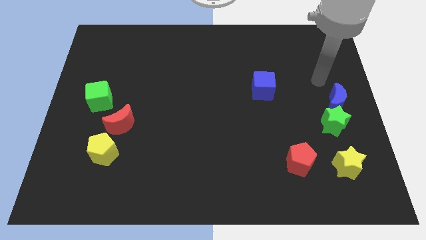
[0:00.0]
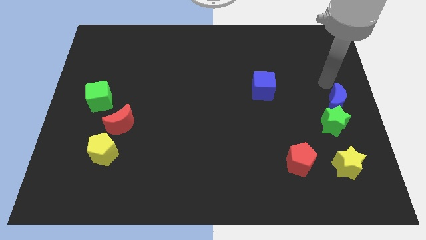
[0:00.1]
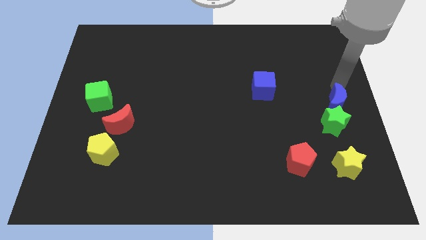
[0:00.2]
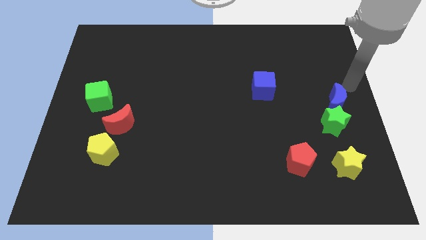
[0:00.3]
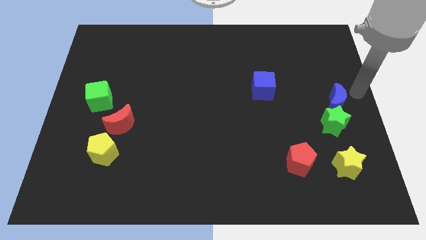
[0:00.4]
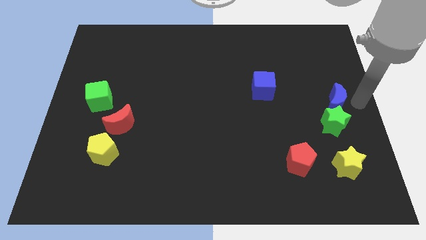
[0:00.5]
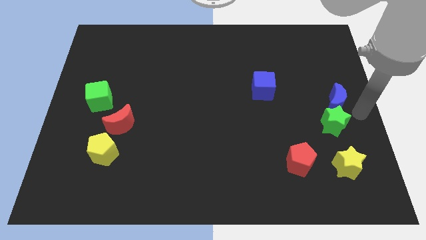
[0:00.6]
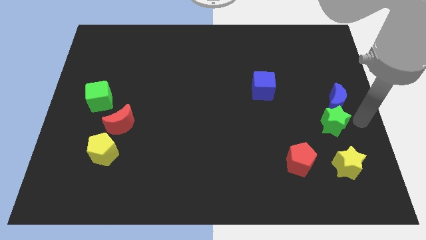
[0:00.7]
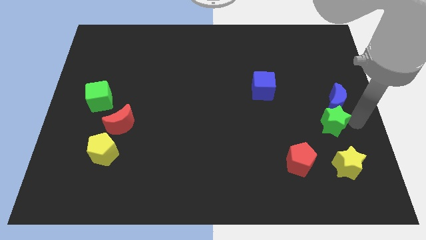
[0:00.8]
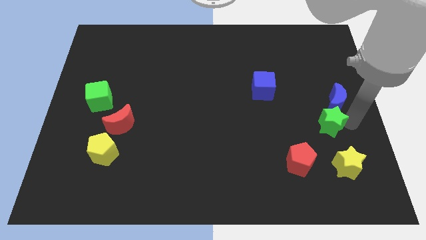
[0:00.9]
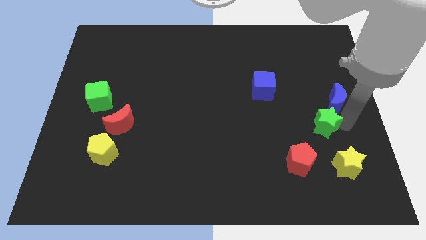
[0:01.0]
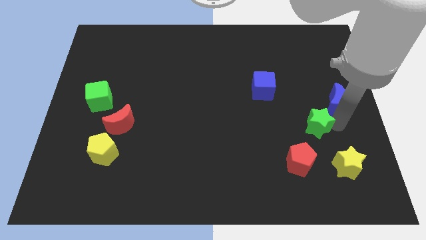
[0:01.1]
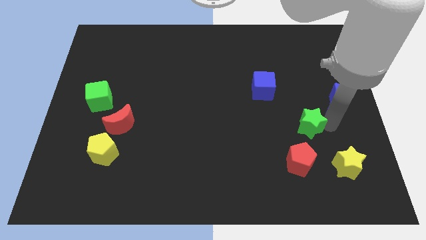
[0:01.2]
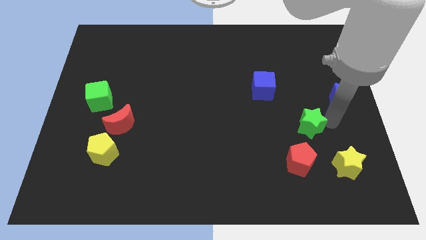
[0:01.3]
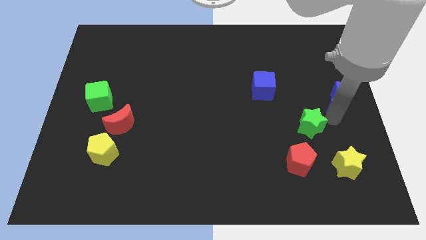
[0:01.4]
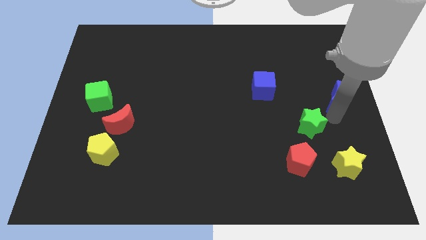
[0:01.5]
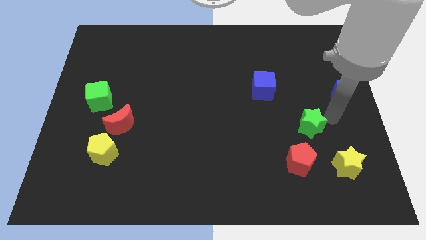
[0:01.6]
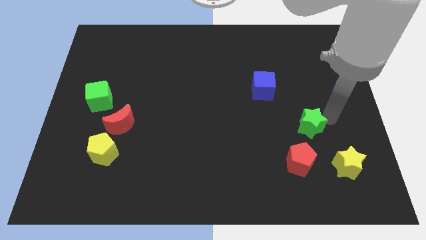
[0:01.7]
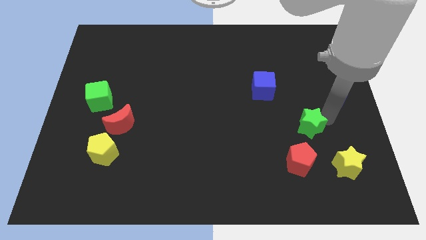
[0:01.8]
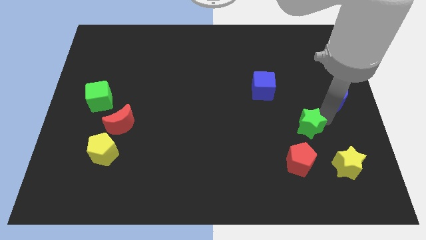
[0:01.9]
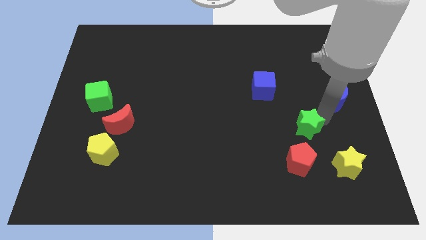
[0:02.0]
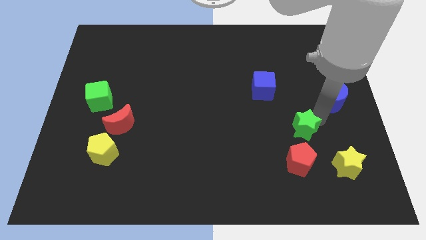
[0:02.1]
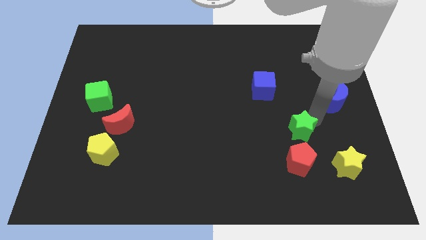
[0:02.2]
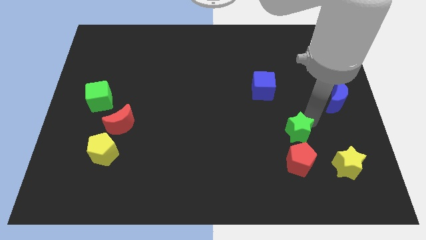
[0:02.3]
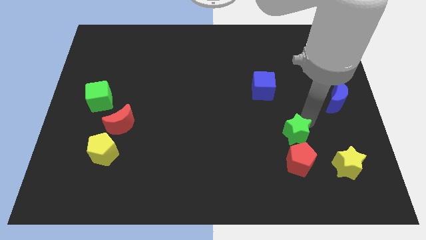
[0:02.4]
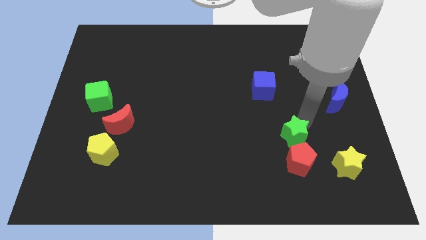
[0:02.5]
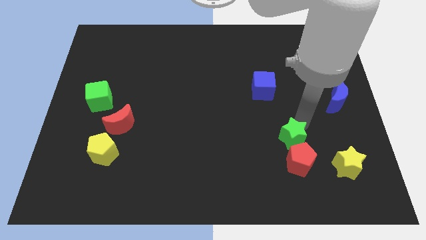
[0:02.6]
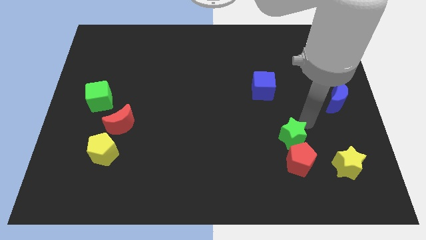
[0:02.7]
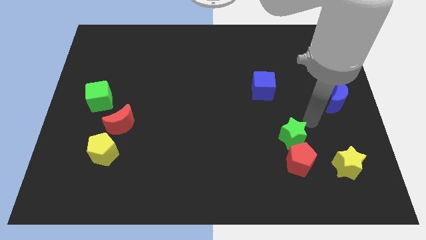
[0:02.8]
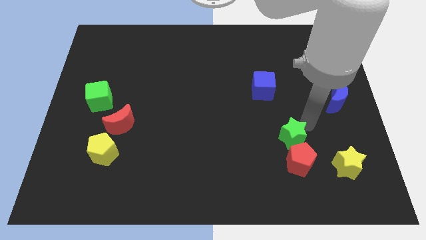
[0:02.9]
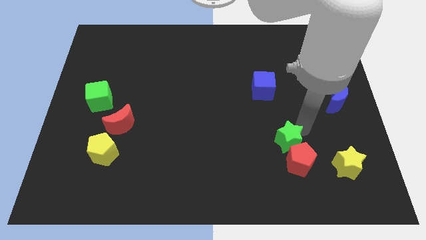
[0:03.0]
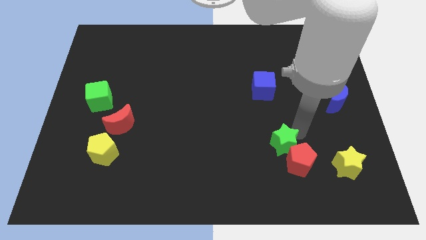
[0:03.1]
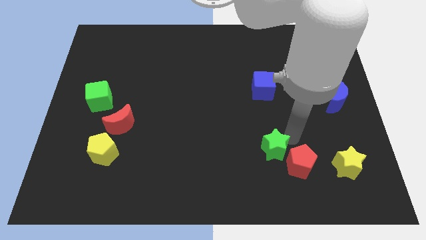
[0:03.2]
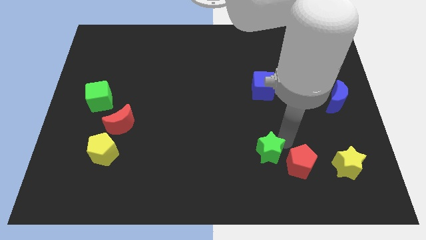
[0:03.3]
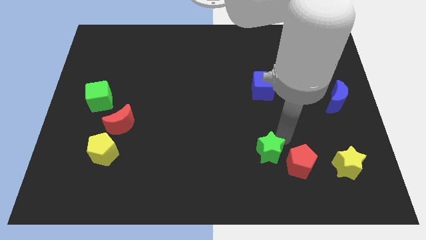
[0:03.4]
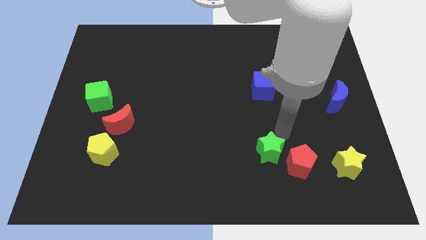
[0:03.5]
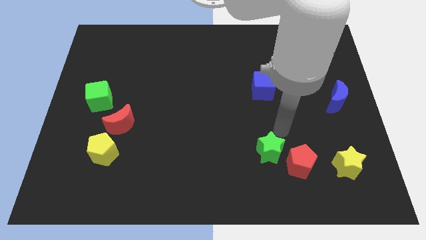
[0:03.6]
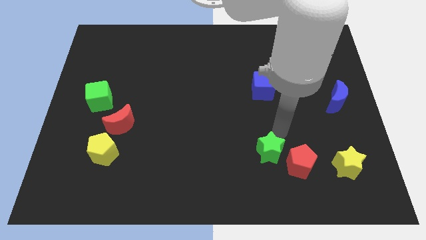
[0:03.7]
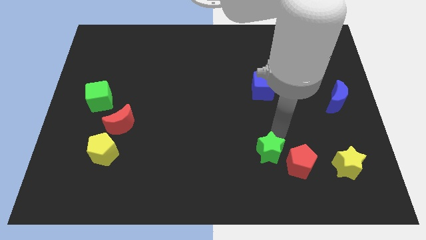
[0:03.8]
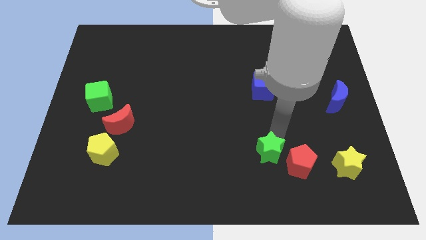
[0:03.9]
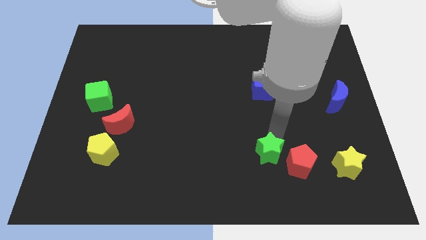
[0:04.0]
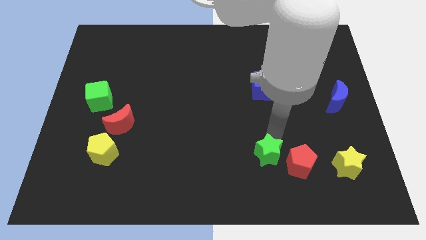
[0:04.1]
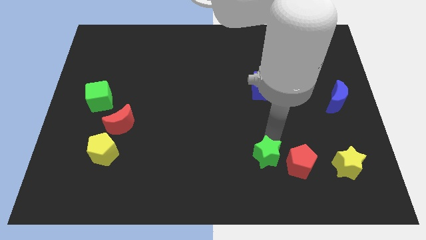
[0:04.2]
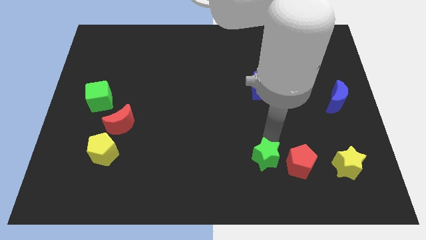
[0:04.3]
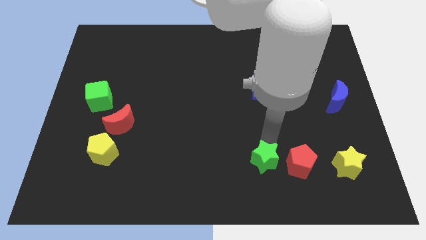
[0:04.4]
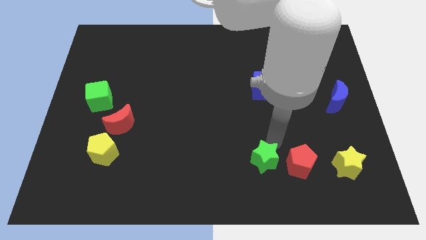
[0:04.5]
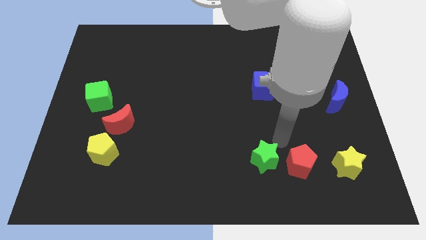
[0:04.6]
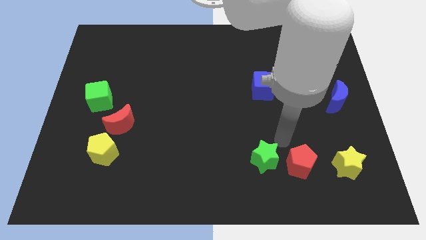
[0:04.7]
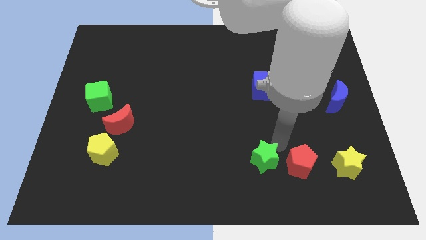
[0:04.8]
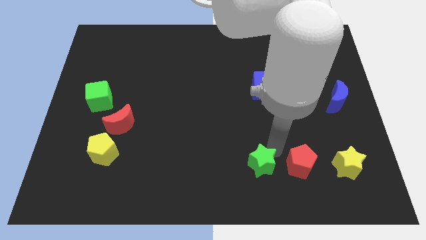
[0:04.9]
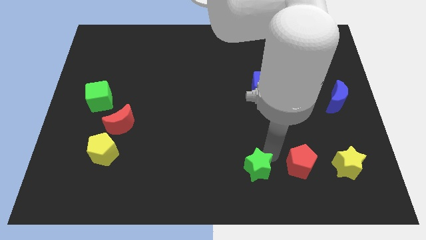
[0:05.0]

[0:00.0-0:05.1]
put the green star to the bottom
